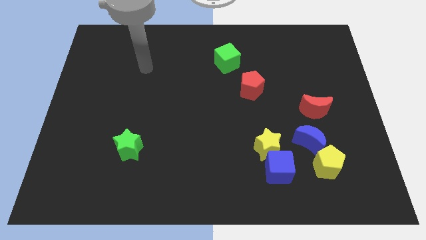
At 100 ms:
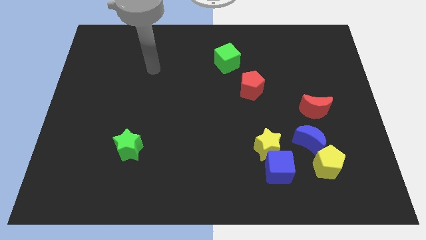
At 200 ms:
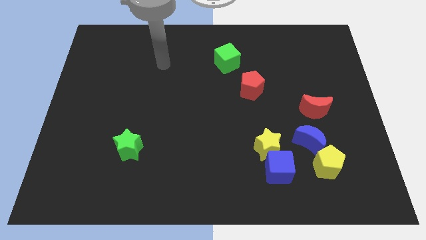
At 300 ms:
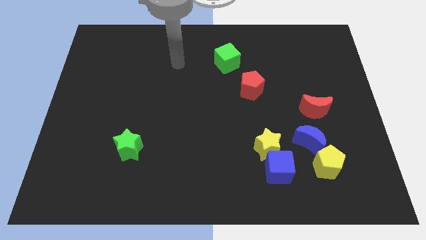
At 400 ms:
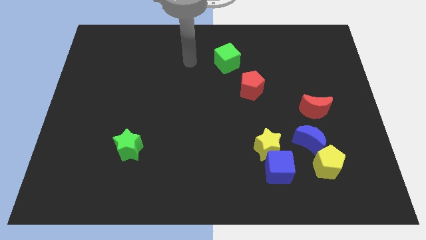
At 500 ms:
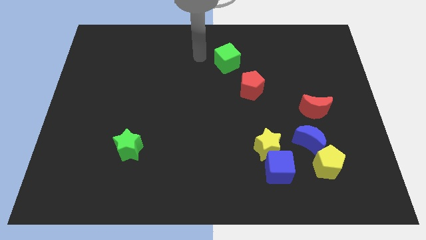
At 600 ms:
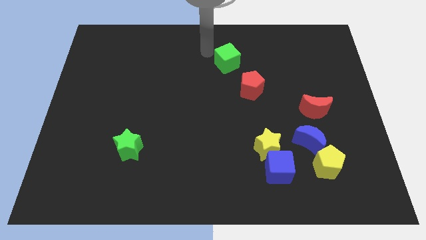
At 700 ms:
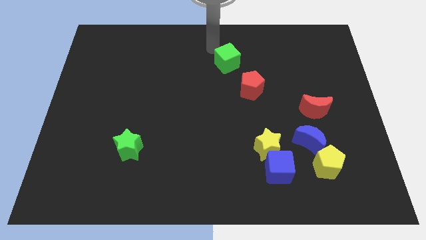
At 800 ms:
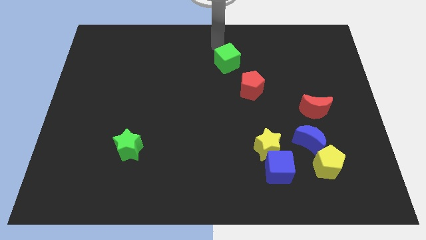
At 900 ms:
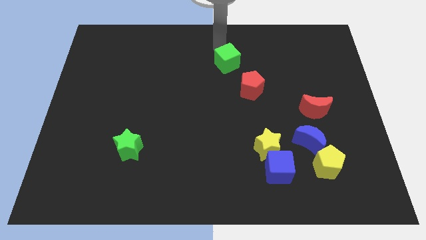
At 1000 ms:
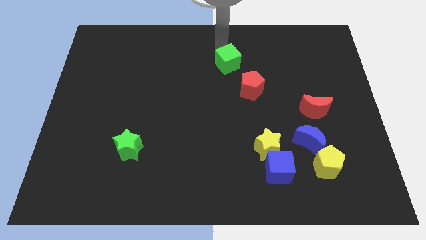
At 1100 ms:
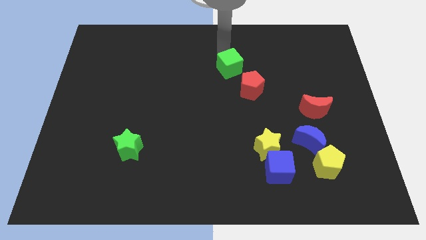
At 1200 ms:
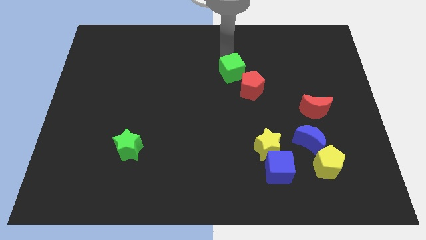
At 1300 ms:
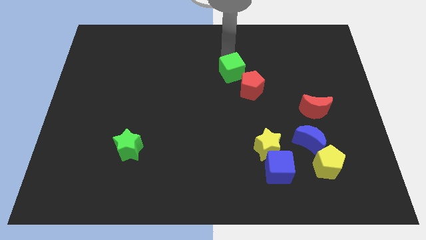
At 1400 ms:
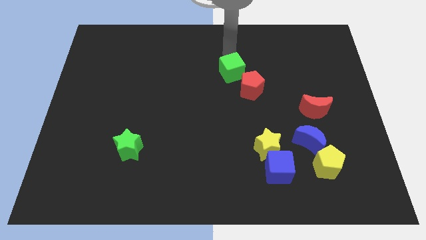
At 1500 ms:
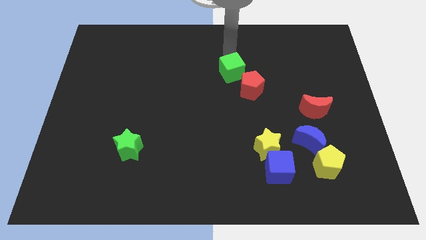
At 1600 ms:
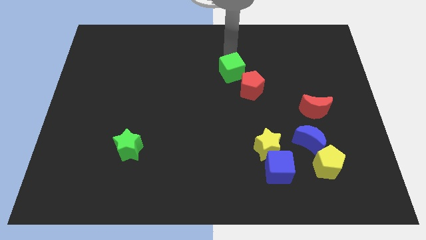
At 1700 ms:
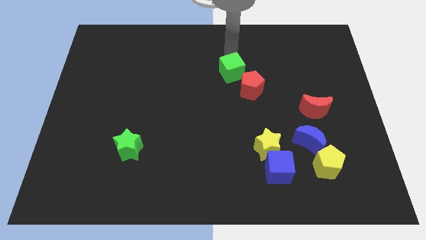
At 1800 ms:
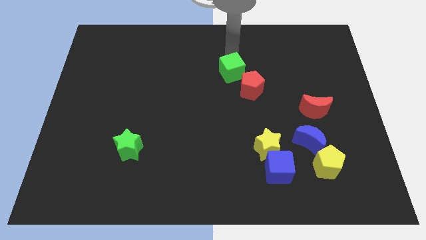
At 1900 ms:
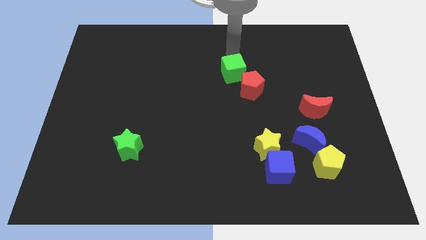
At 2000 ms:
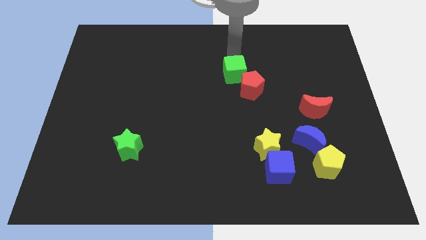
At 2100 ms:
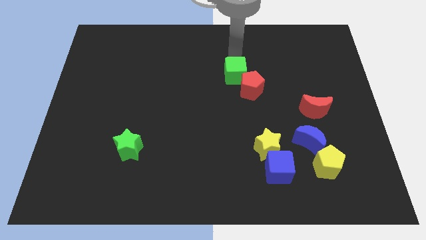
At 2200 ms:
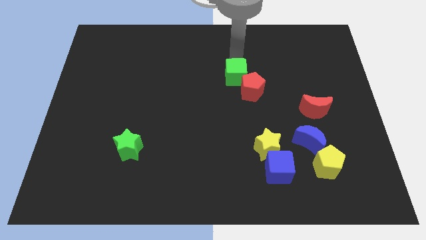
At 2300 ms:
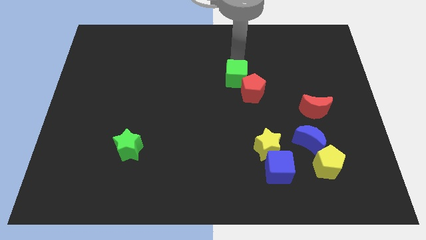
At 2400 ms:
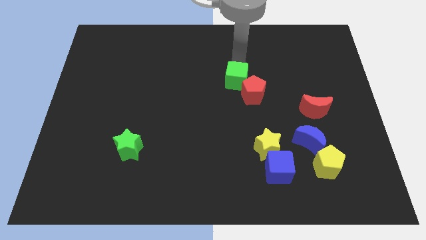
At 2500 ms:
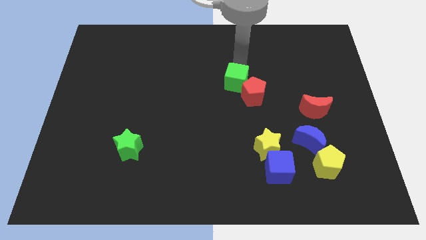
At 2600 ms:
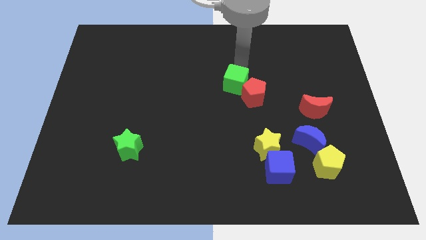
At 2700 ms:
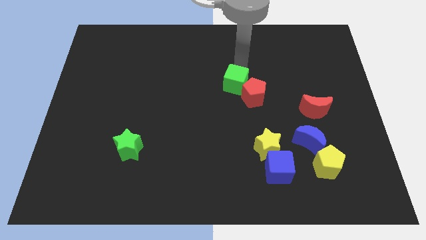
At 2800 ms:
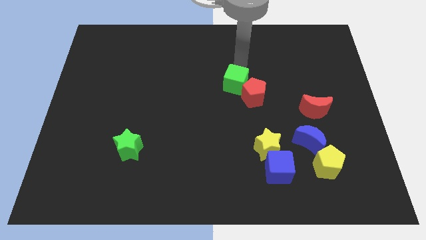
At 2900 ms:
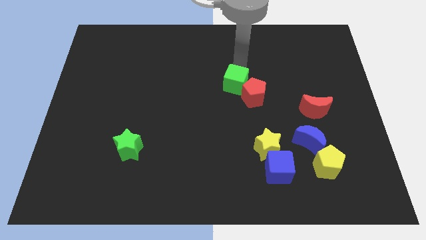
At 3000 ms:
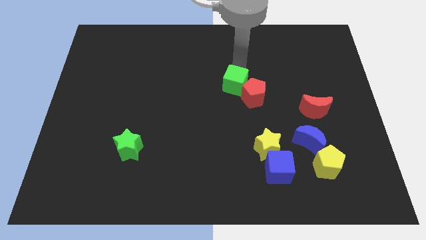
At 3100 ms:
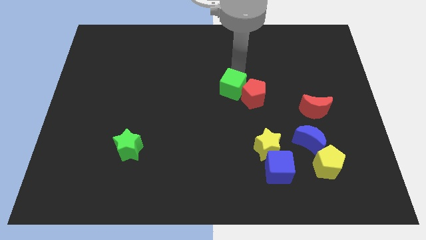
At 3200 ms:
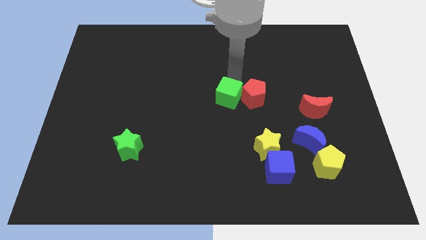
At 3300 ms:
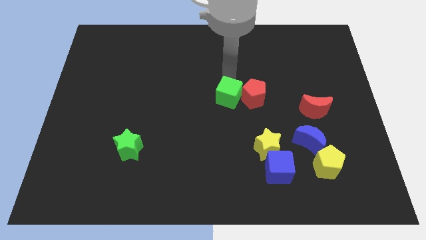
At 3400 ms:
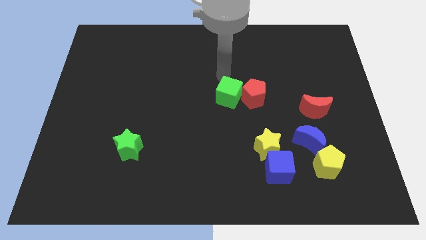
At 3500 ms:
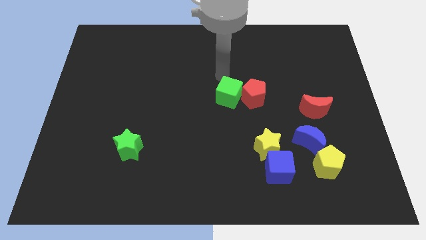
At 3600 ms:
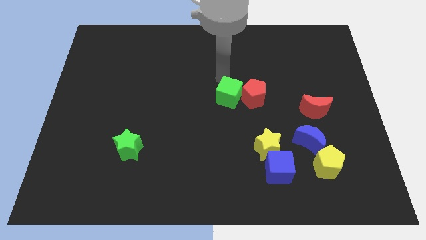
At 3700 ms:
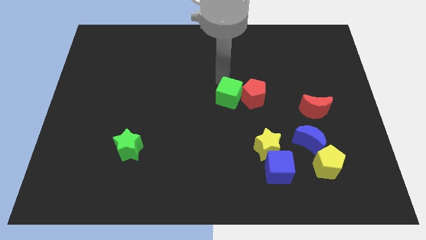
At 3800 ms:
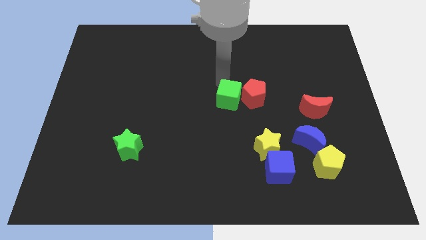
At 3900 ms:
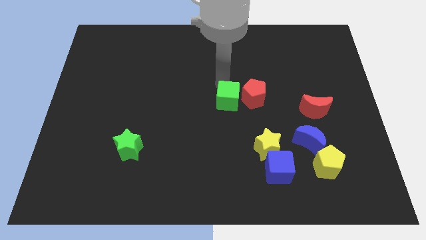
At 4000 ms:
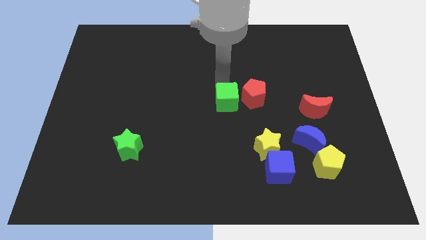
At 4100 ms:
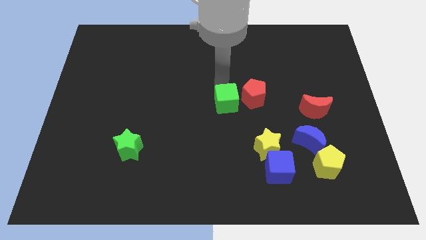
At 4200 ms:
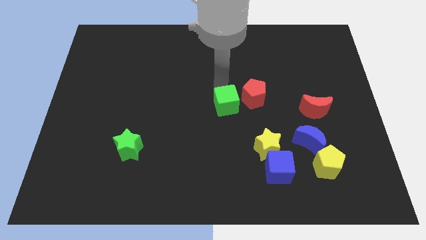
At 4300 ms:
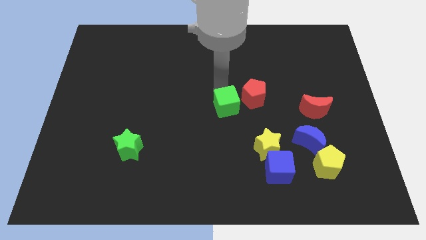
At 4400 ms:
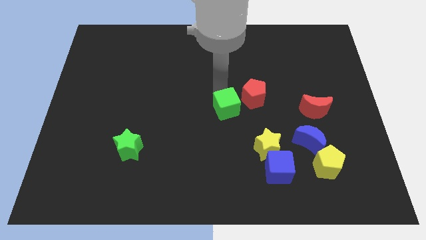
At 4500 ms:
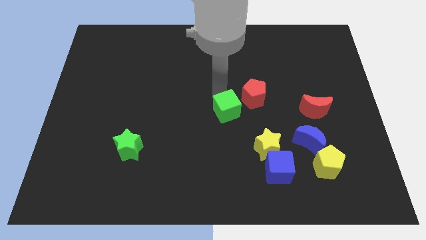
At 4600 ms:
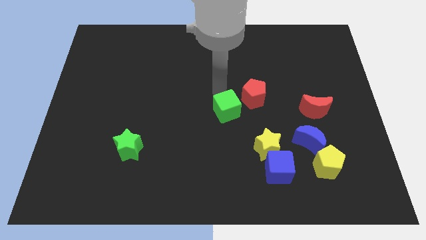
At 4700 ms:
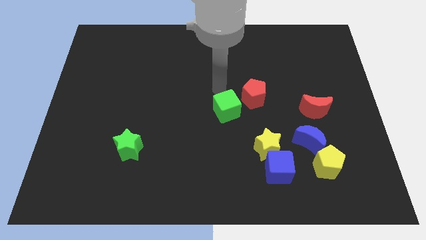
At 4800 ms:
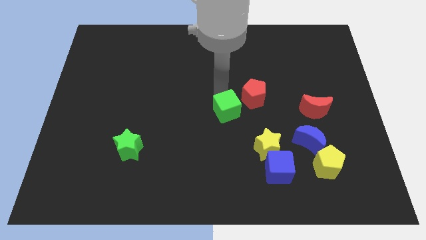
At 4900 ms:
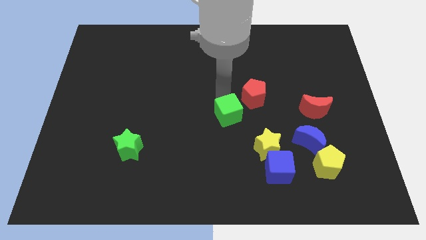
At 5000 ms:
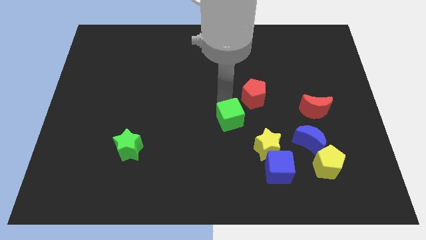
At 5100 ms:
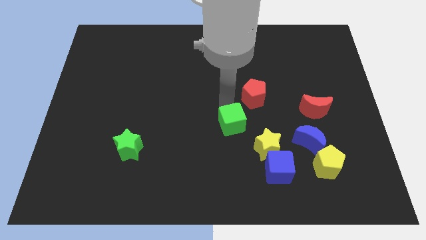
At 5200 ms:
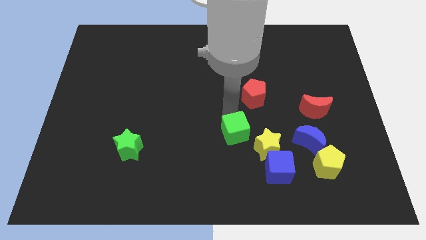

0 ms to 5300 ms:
push the green cube downwards

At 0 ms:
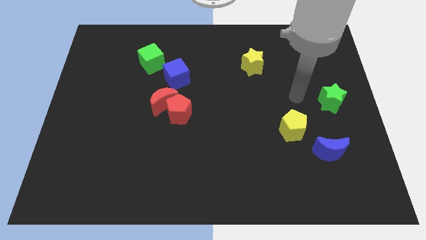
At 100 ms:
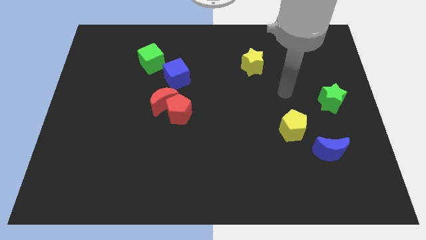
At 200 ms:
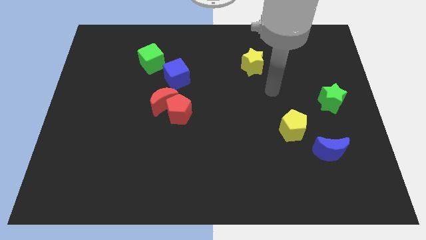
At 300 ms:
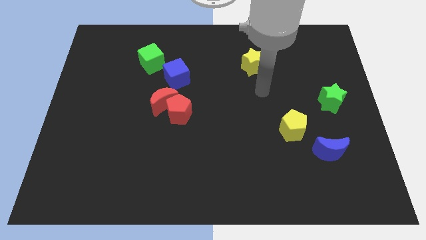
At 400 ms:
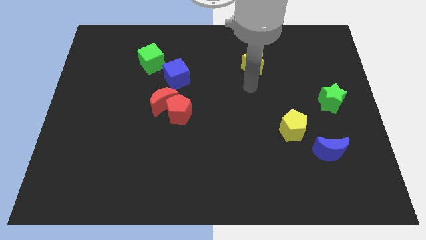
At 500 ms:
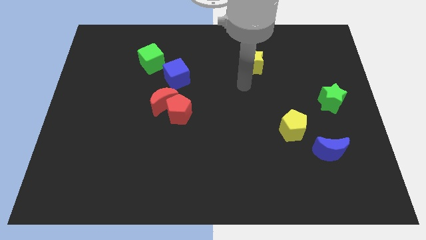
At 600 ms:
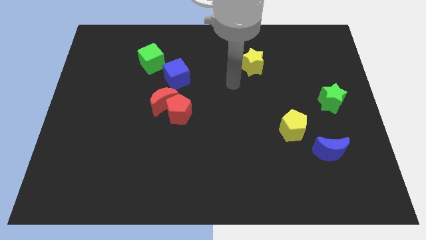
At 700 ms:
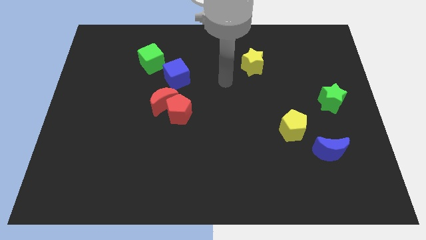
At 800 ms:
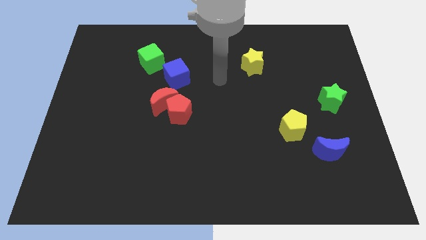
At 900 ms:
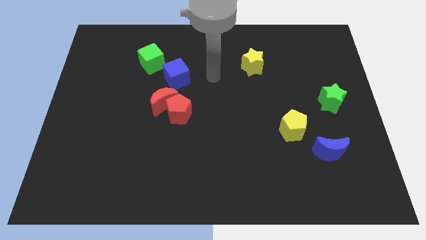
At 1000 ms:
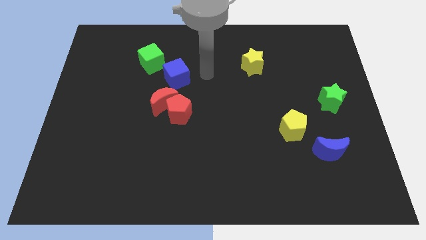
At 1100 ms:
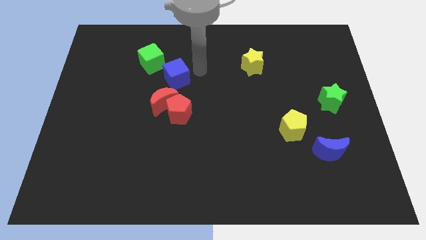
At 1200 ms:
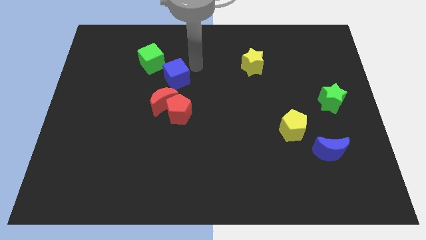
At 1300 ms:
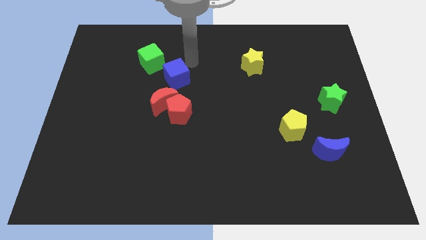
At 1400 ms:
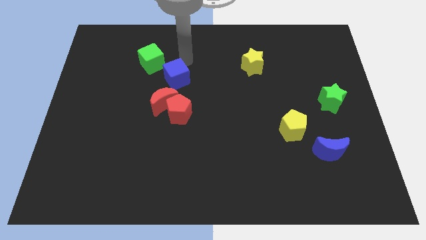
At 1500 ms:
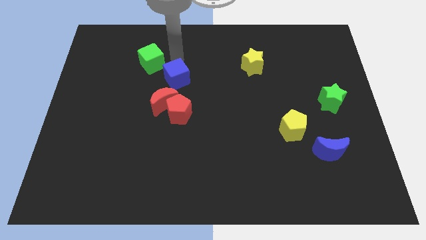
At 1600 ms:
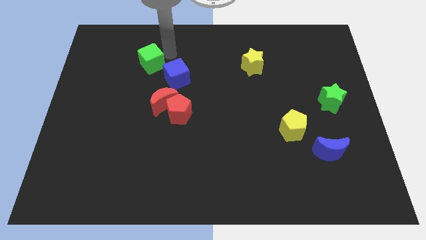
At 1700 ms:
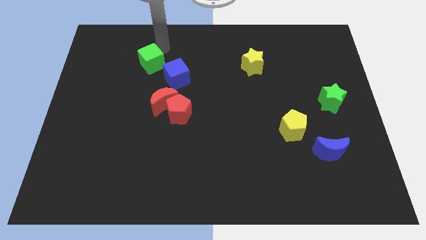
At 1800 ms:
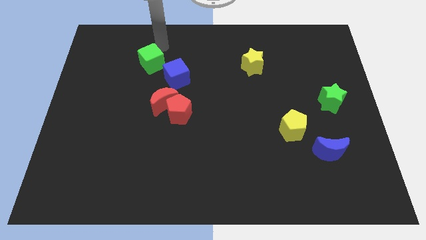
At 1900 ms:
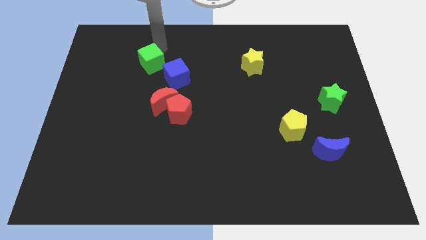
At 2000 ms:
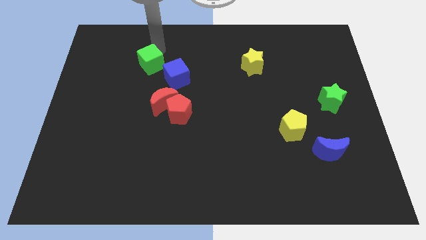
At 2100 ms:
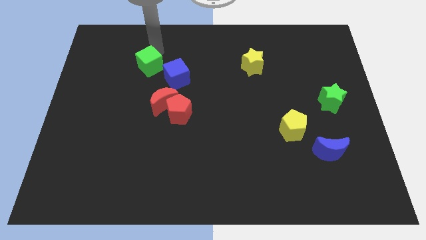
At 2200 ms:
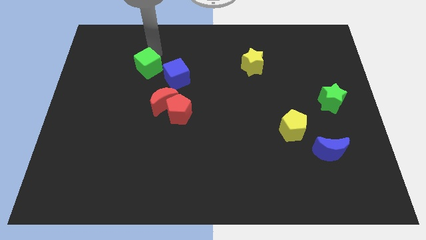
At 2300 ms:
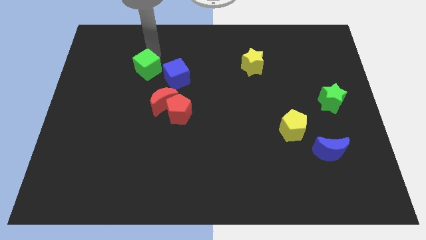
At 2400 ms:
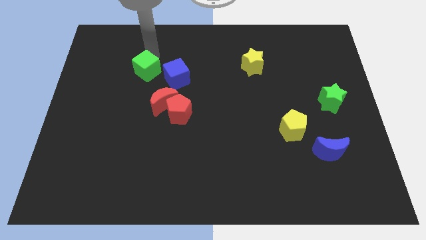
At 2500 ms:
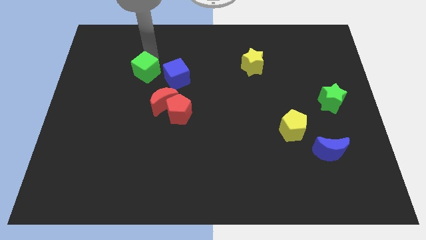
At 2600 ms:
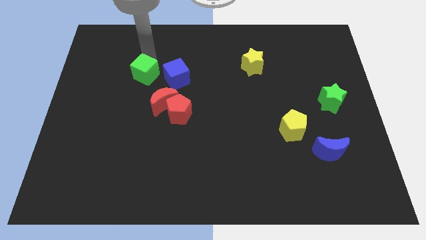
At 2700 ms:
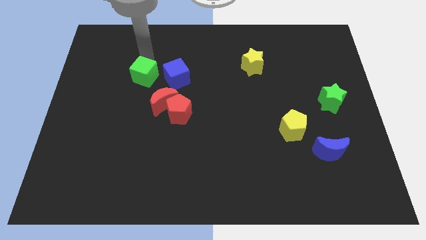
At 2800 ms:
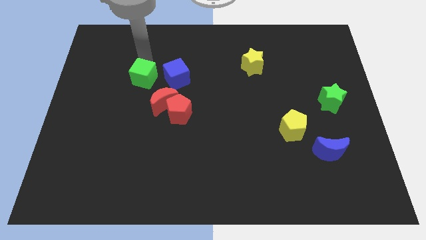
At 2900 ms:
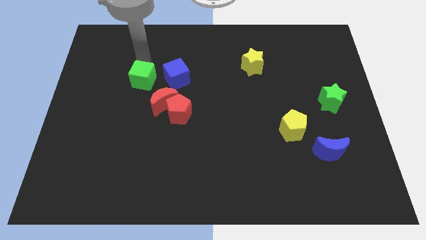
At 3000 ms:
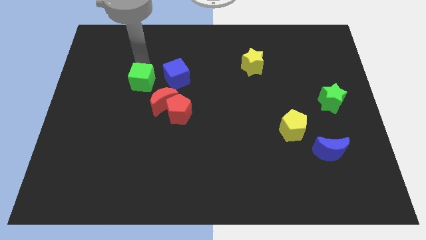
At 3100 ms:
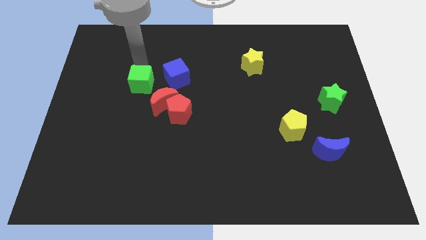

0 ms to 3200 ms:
slide the green cube down a little
